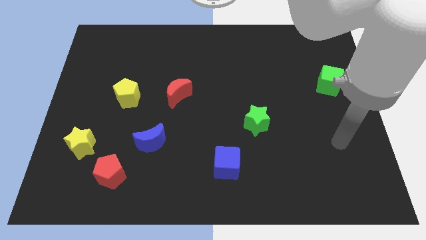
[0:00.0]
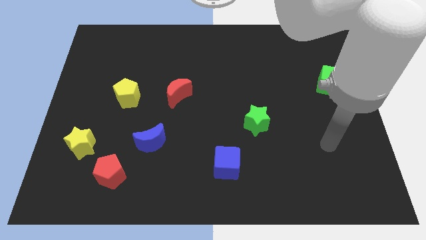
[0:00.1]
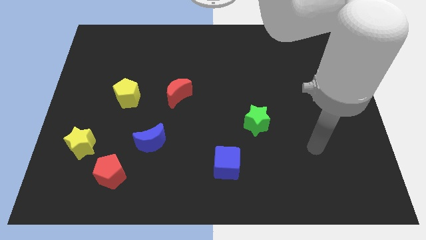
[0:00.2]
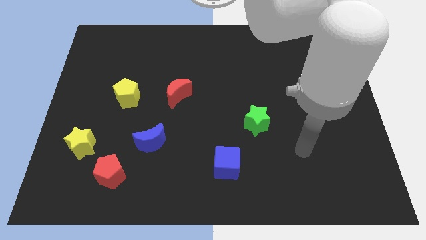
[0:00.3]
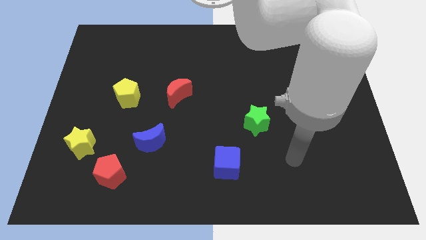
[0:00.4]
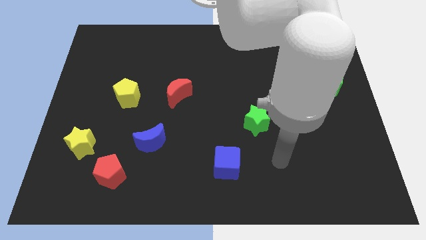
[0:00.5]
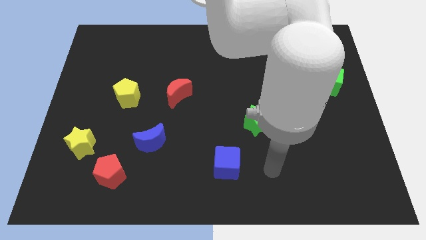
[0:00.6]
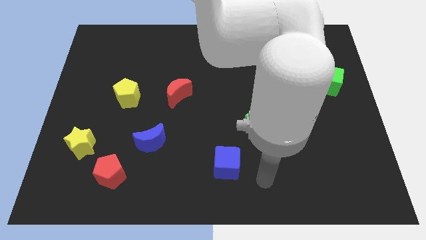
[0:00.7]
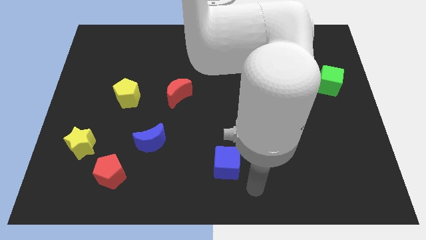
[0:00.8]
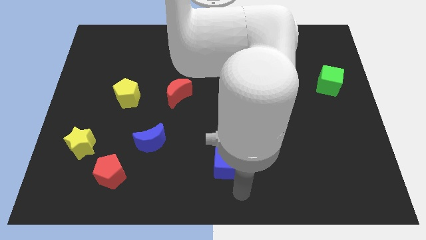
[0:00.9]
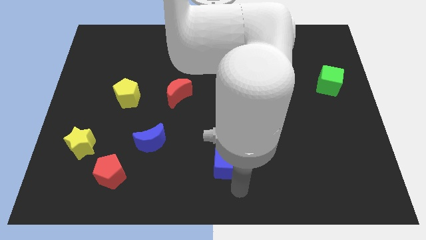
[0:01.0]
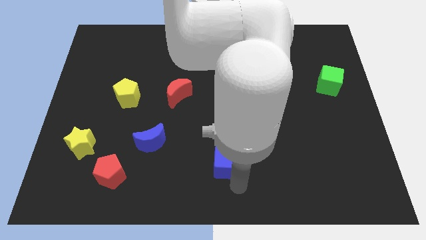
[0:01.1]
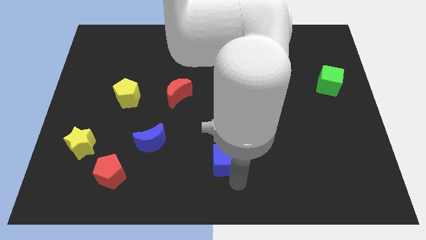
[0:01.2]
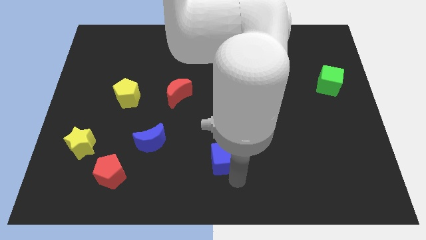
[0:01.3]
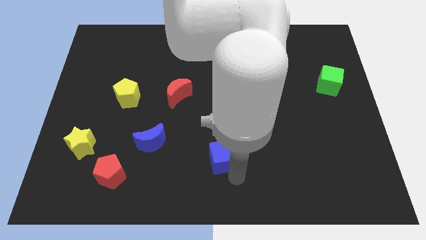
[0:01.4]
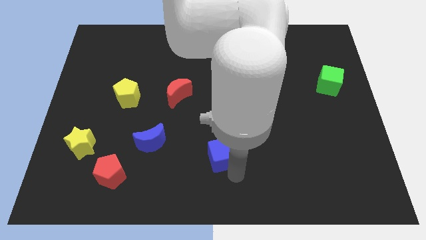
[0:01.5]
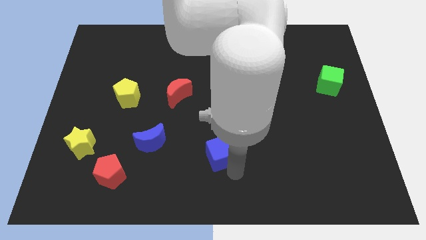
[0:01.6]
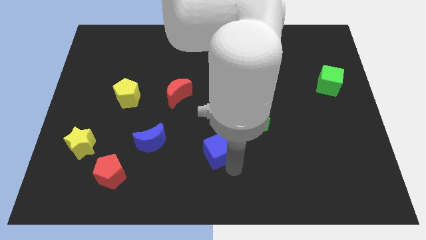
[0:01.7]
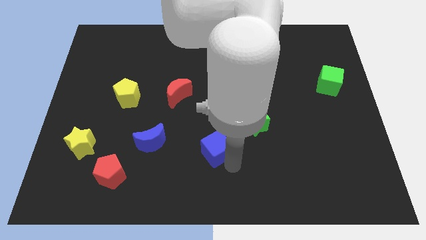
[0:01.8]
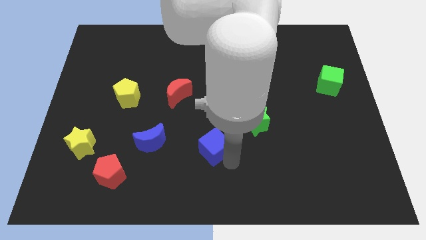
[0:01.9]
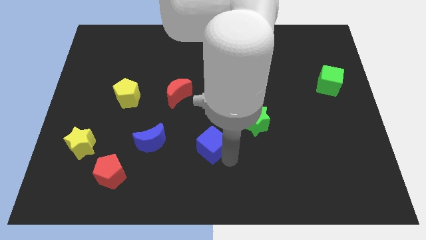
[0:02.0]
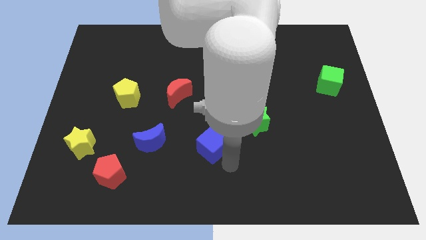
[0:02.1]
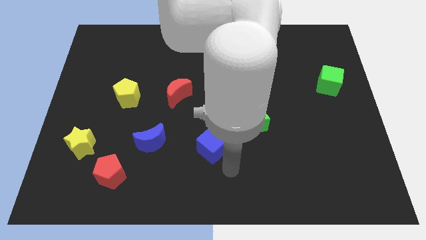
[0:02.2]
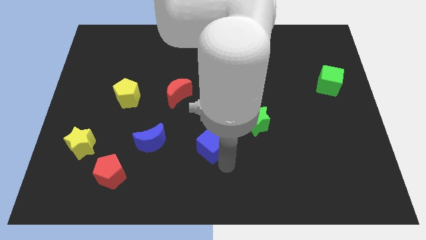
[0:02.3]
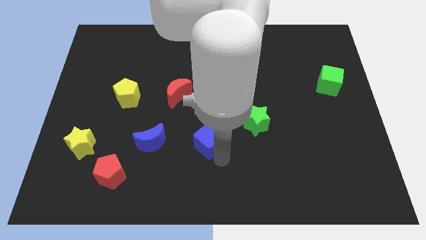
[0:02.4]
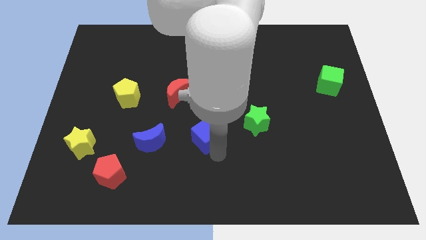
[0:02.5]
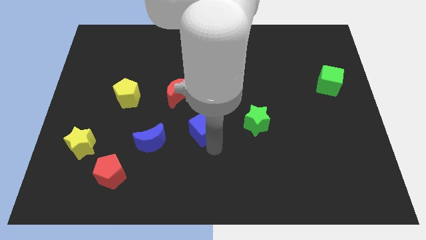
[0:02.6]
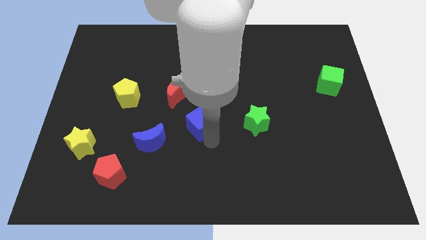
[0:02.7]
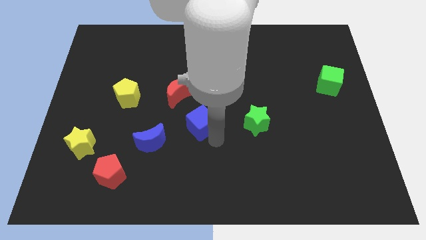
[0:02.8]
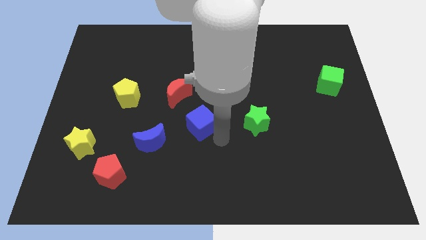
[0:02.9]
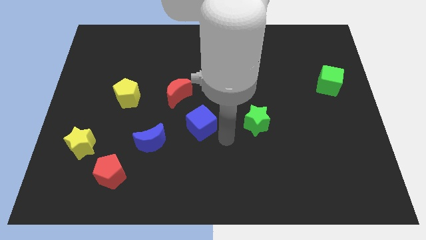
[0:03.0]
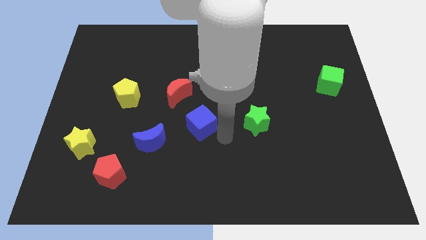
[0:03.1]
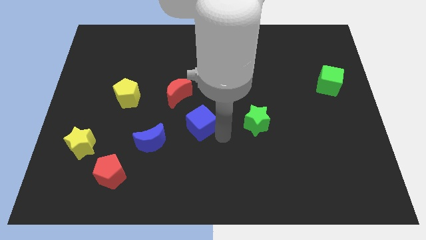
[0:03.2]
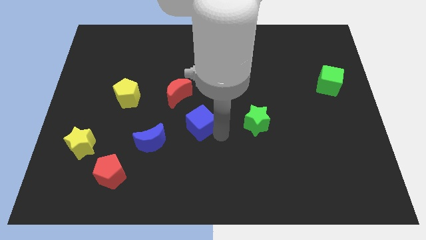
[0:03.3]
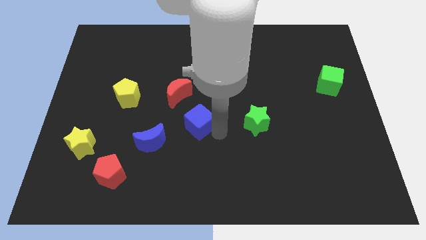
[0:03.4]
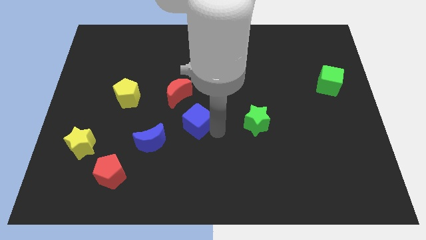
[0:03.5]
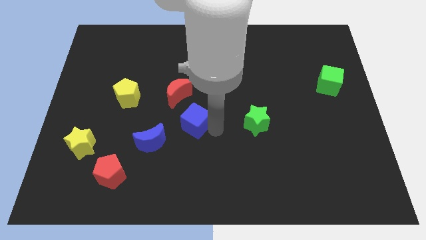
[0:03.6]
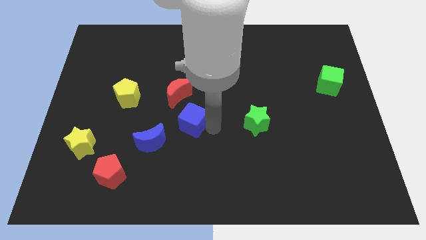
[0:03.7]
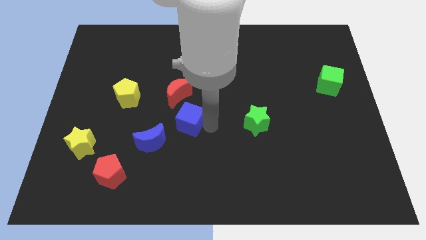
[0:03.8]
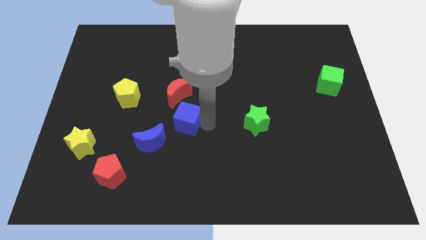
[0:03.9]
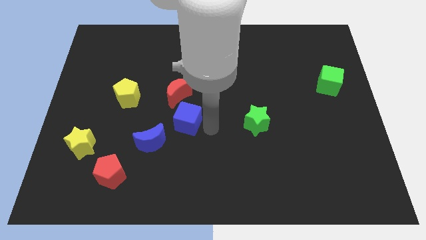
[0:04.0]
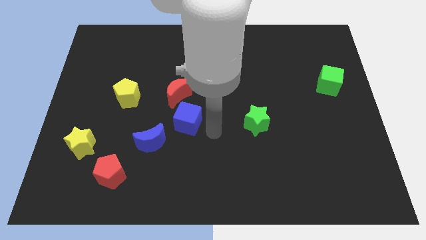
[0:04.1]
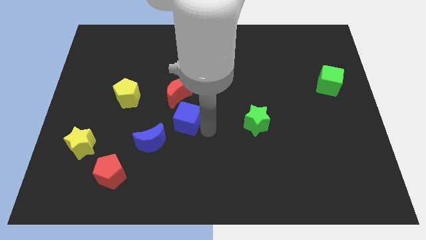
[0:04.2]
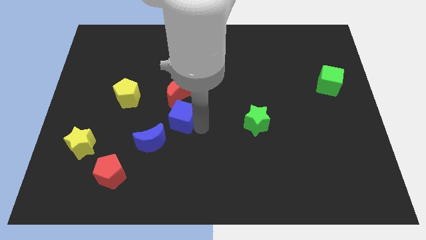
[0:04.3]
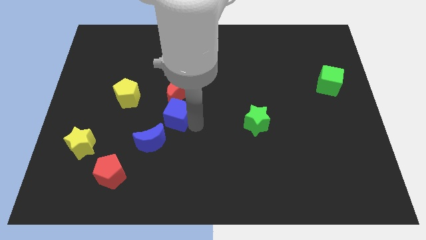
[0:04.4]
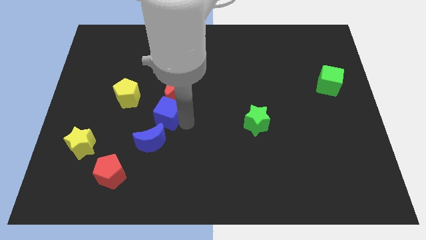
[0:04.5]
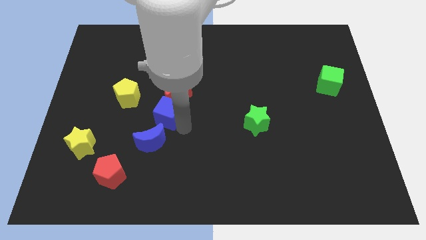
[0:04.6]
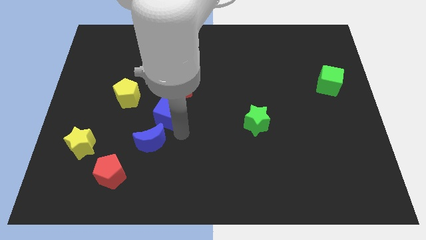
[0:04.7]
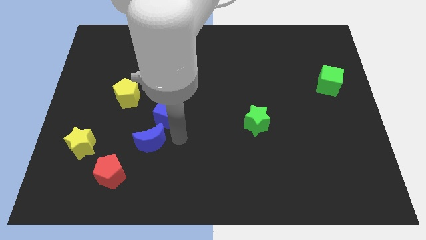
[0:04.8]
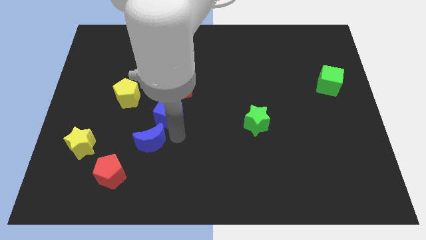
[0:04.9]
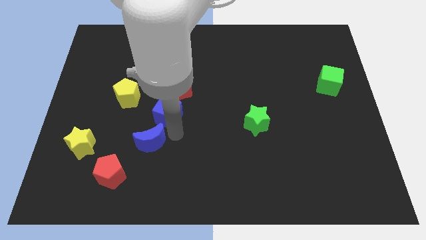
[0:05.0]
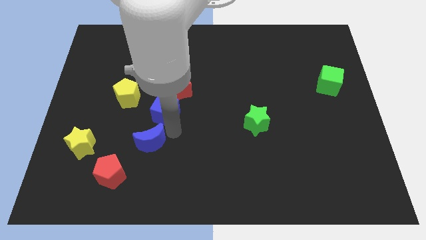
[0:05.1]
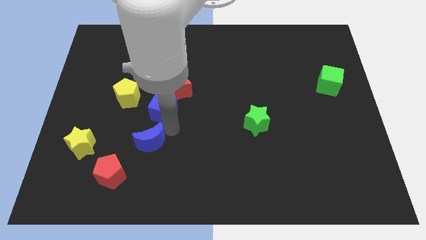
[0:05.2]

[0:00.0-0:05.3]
move the blue cube upwards and left diagonally

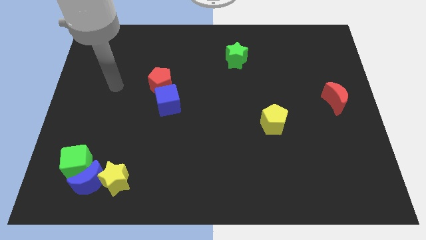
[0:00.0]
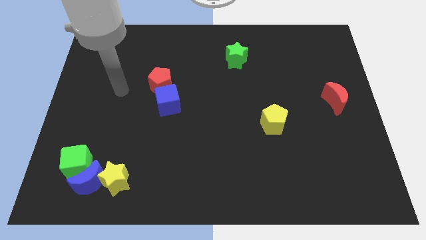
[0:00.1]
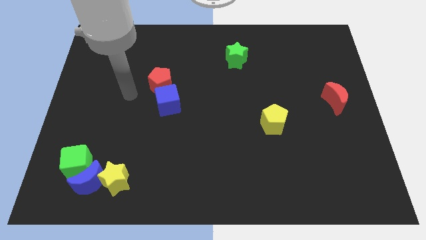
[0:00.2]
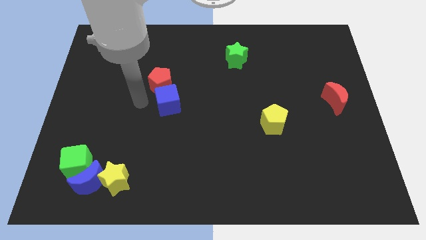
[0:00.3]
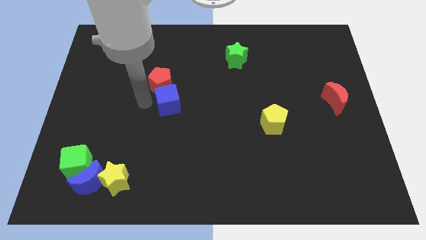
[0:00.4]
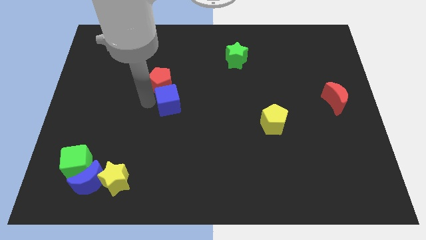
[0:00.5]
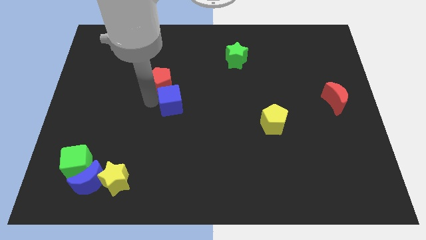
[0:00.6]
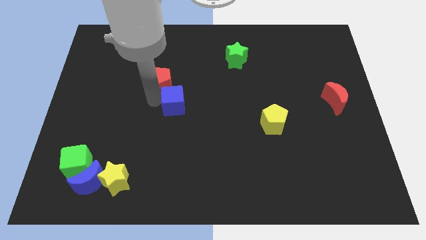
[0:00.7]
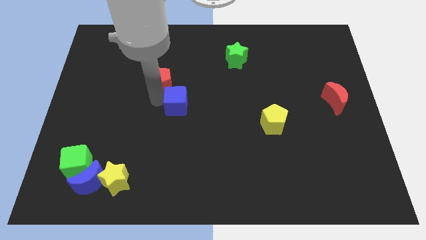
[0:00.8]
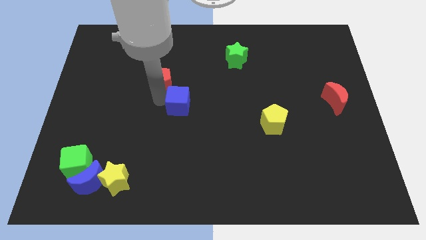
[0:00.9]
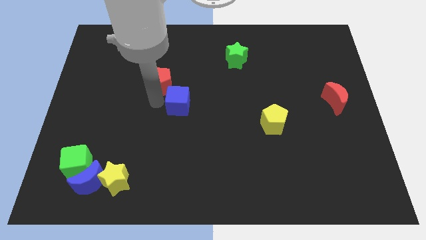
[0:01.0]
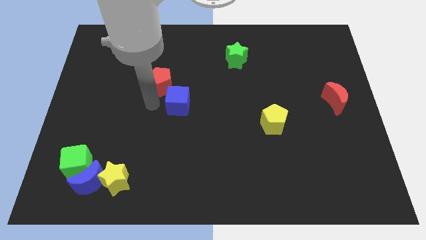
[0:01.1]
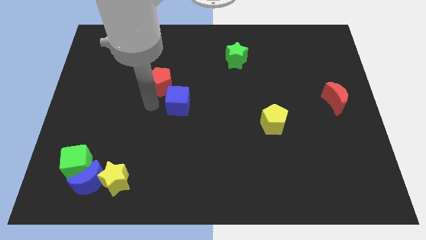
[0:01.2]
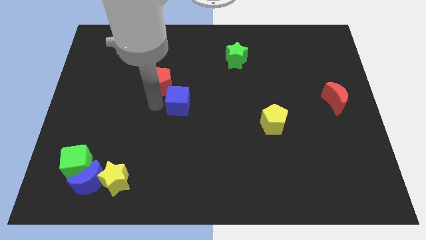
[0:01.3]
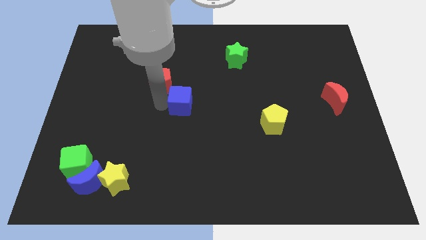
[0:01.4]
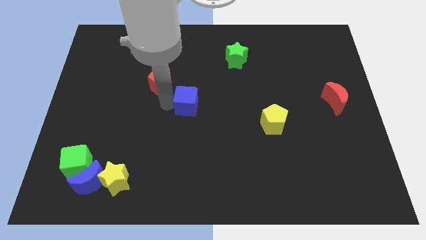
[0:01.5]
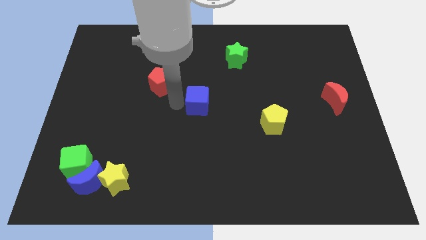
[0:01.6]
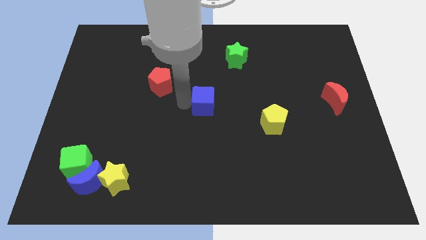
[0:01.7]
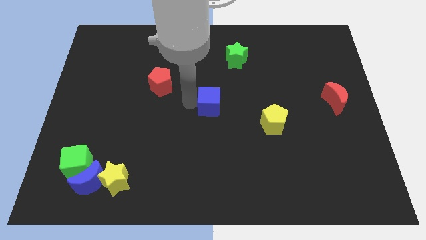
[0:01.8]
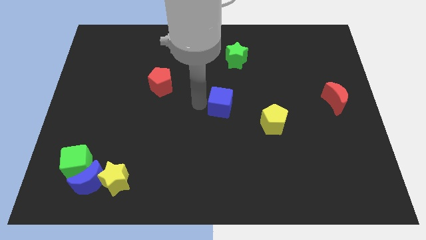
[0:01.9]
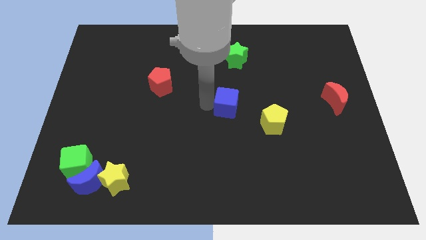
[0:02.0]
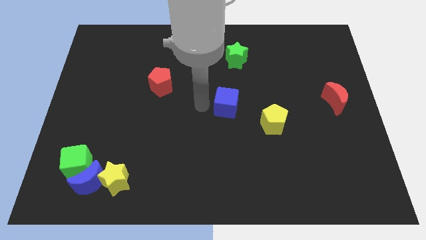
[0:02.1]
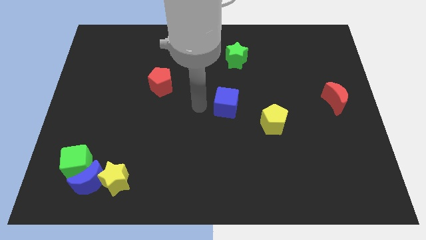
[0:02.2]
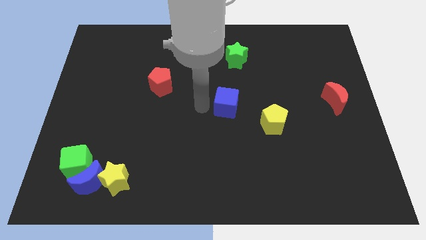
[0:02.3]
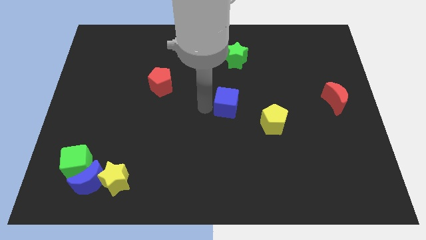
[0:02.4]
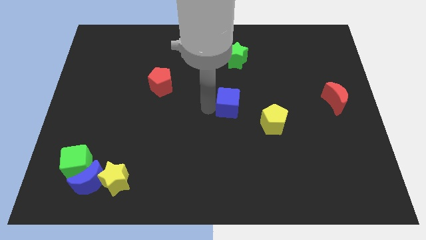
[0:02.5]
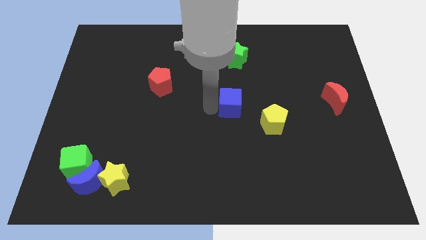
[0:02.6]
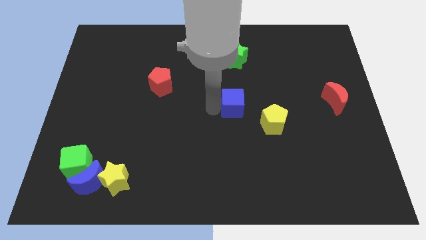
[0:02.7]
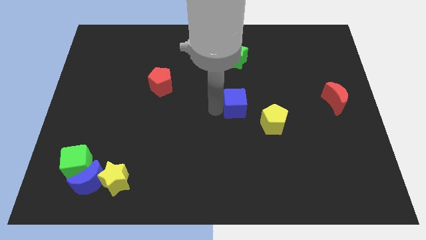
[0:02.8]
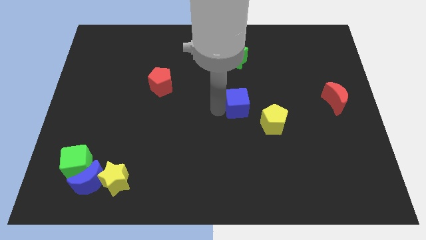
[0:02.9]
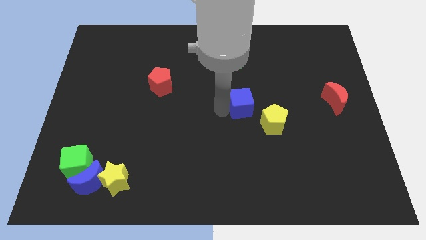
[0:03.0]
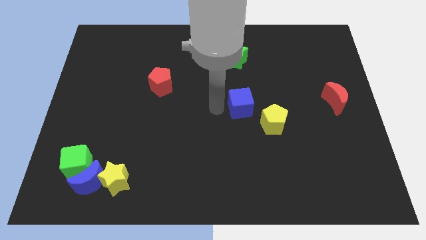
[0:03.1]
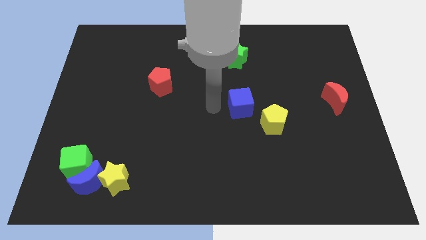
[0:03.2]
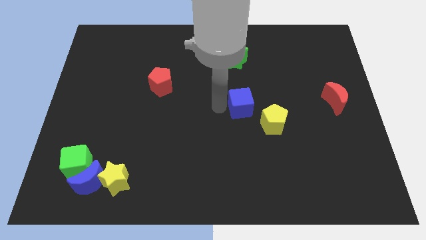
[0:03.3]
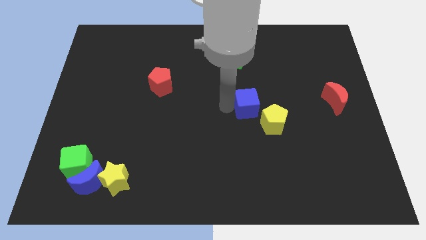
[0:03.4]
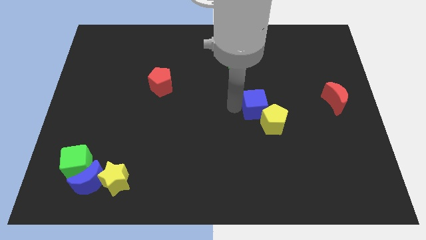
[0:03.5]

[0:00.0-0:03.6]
move the blue cube right
